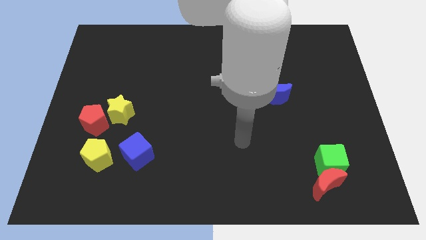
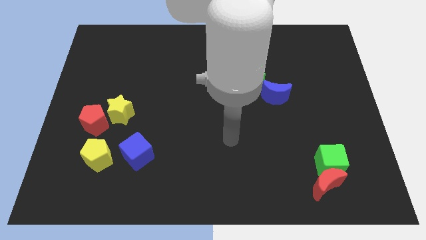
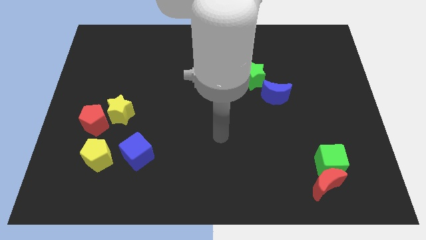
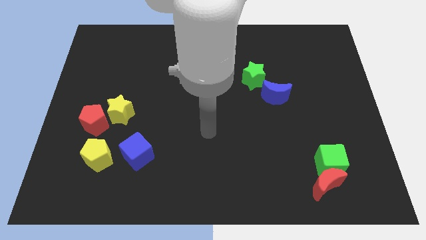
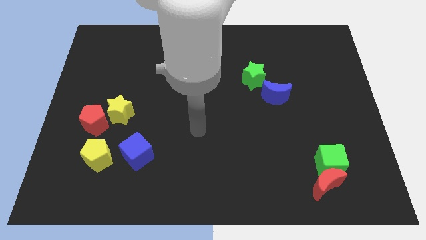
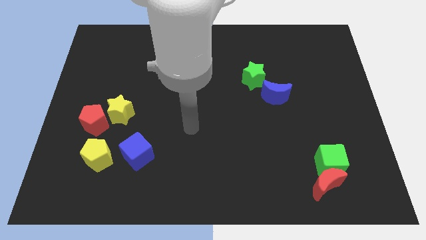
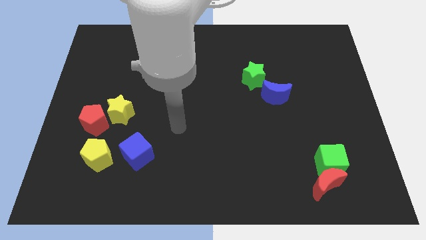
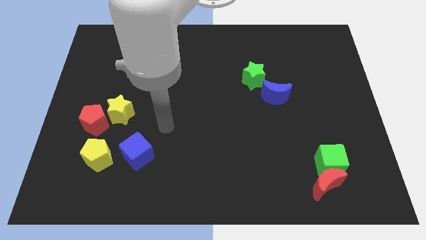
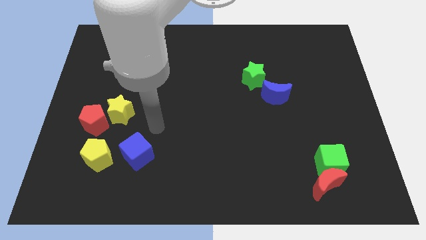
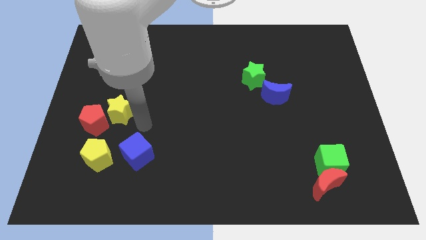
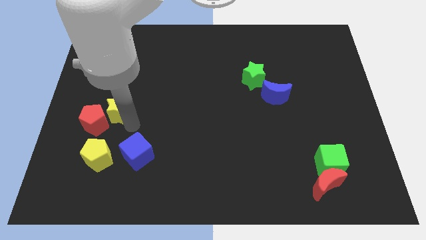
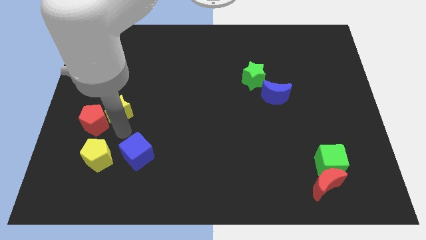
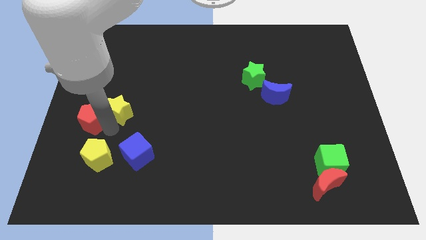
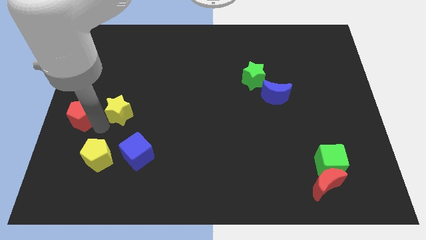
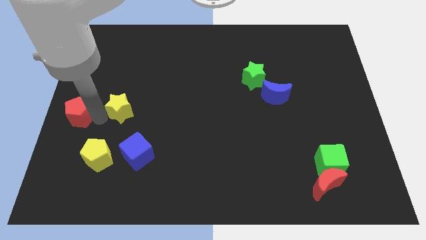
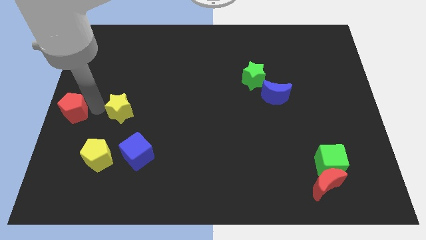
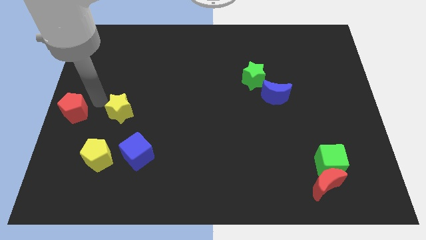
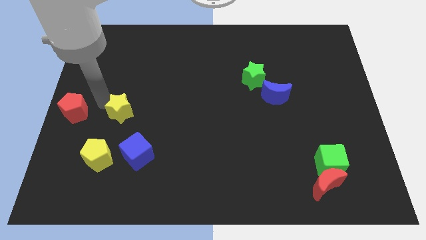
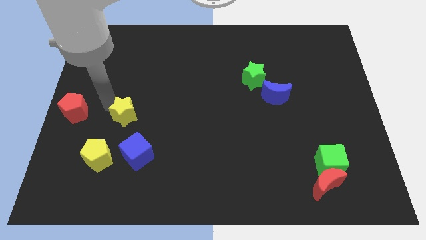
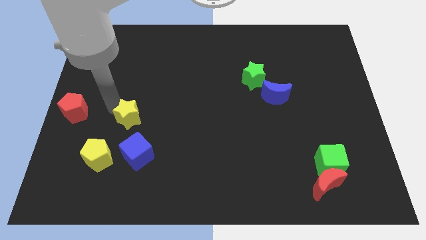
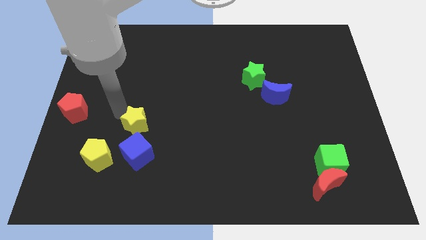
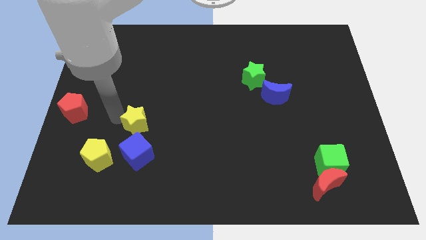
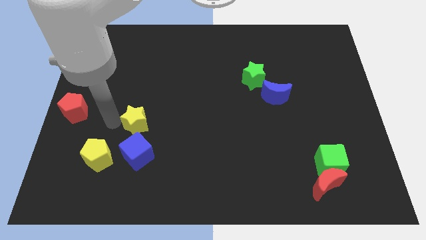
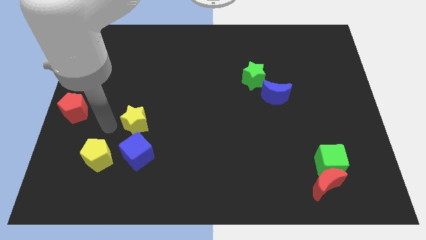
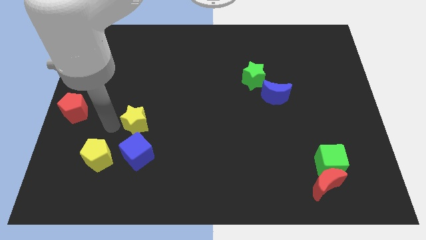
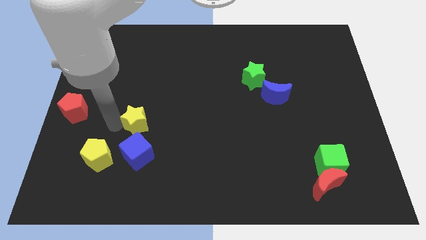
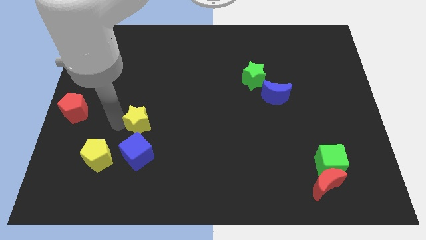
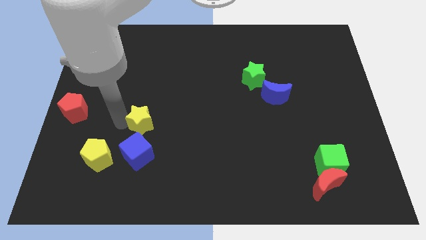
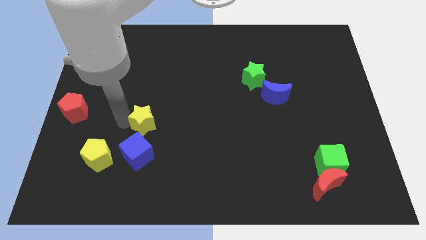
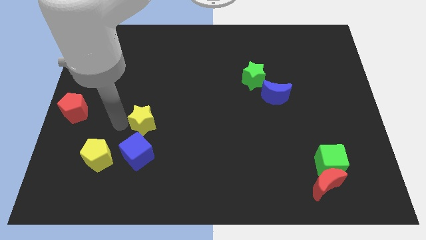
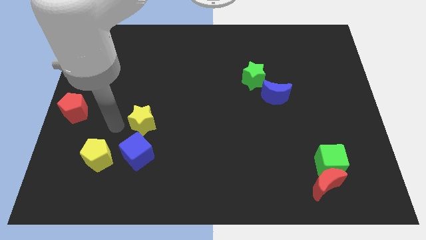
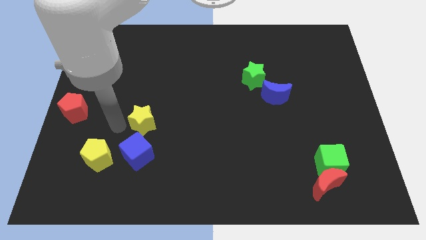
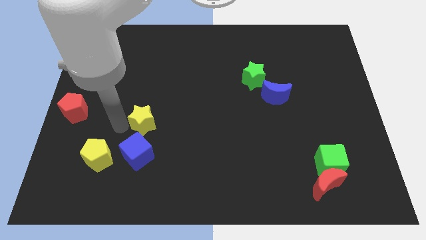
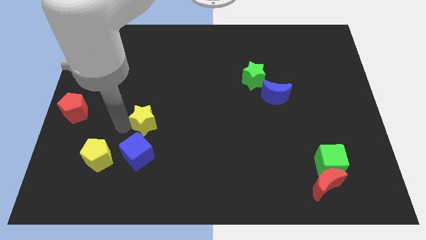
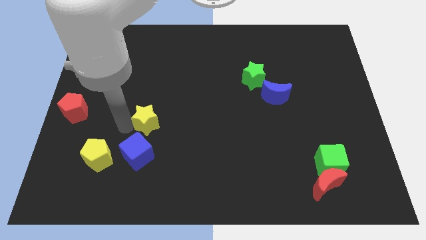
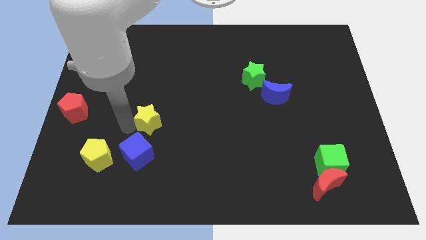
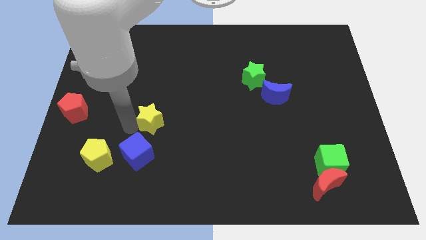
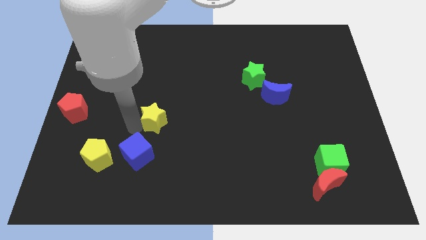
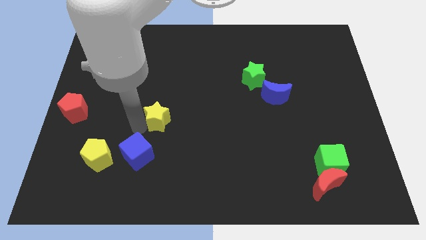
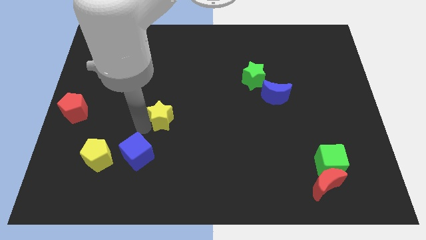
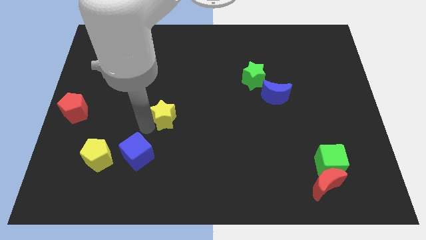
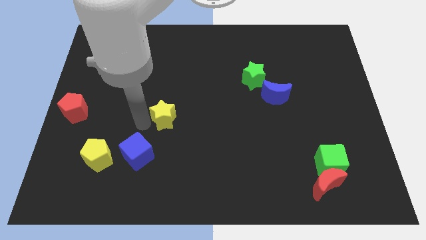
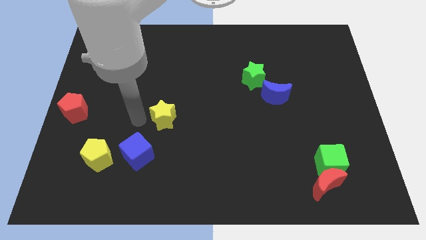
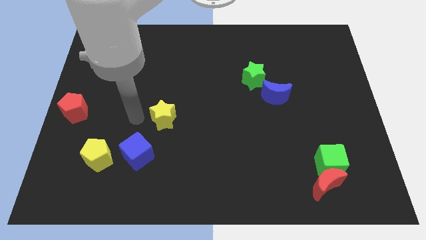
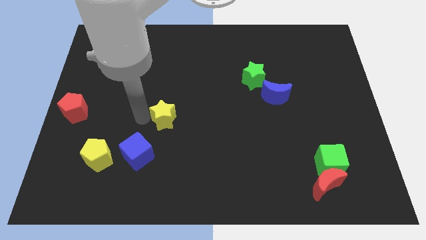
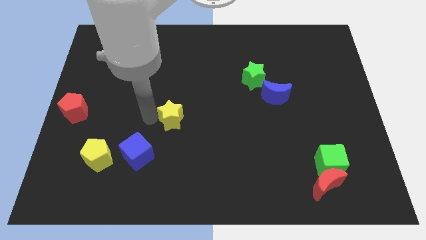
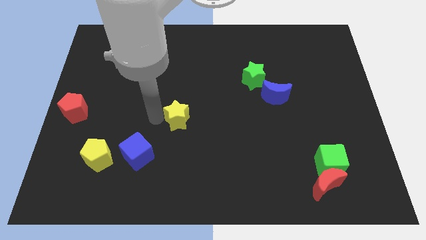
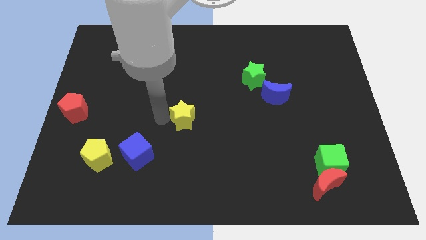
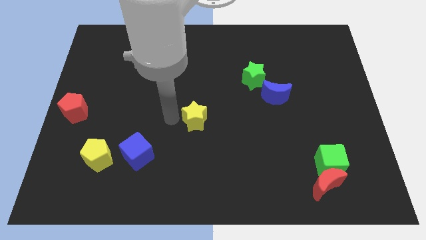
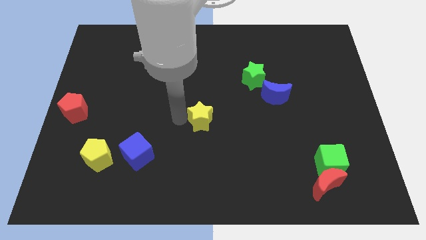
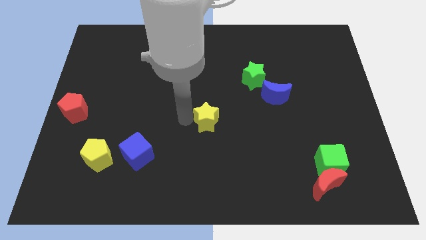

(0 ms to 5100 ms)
push the yellow star right

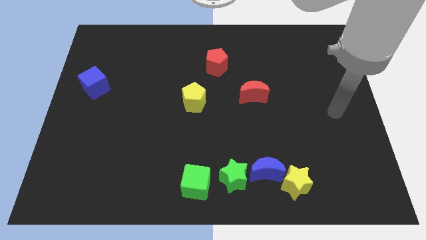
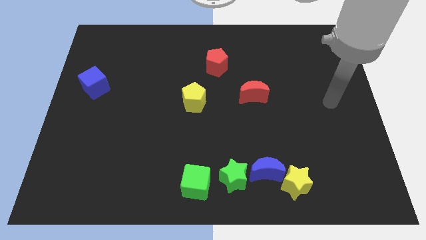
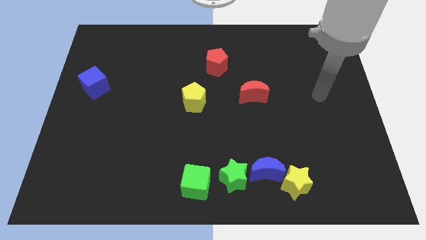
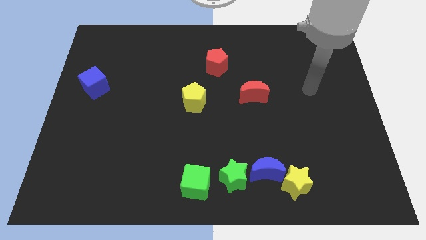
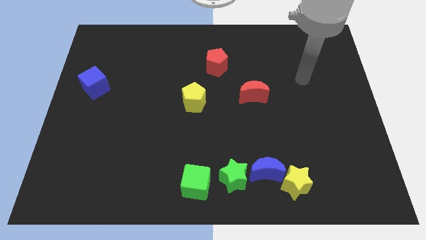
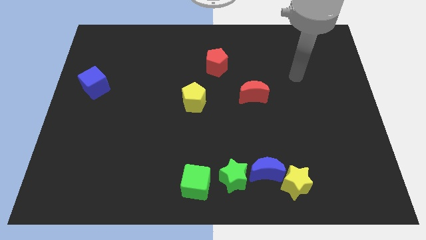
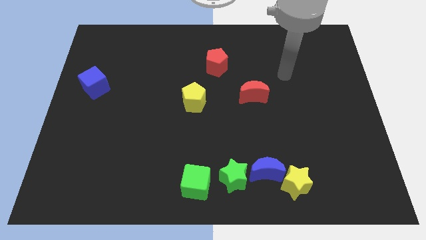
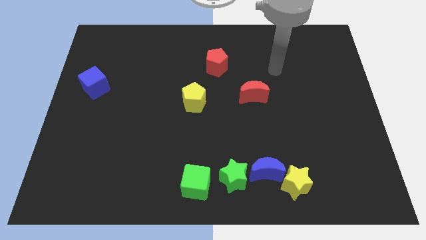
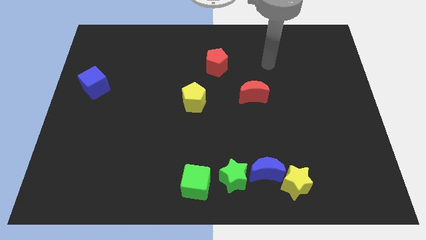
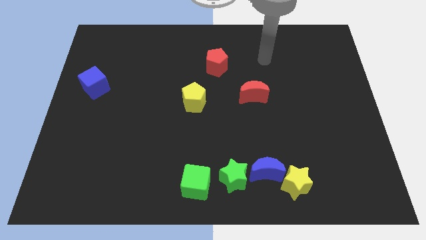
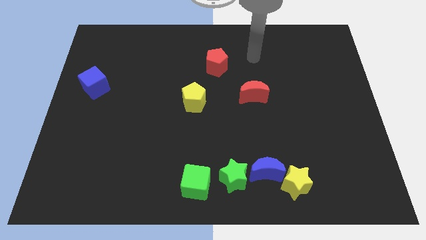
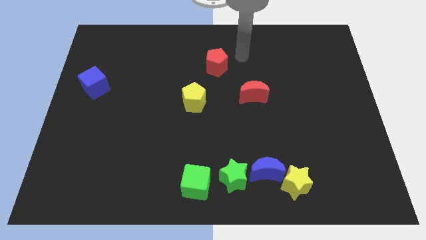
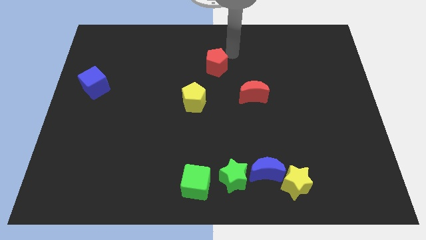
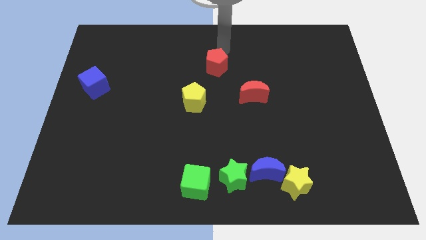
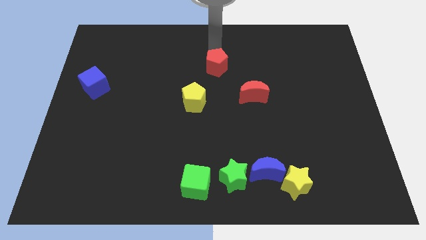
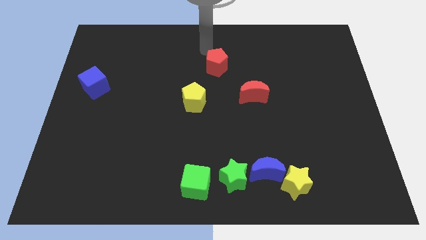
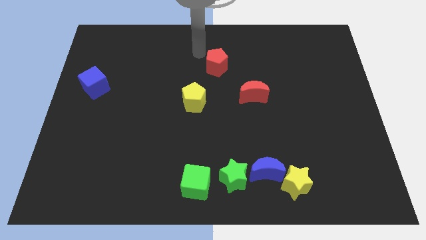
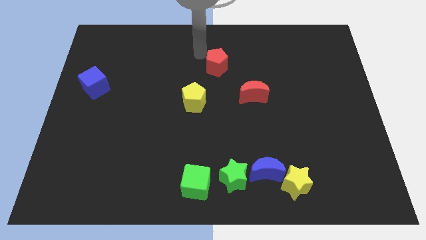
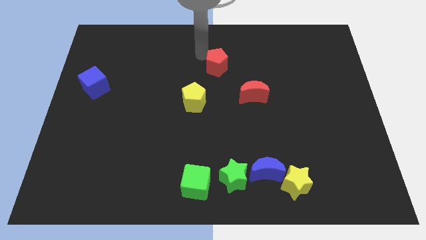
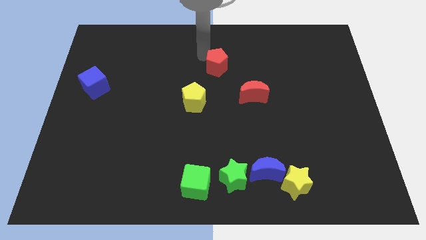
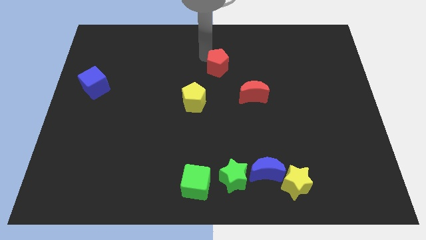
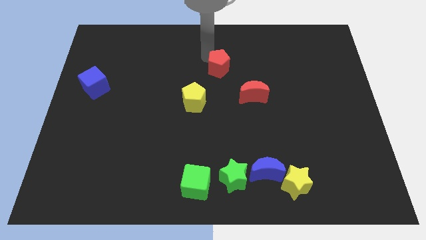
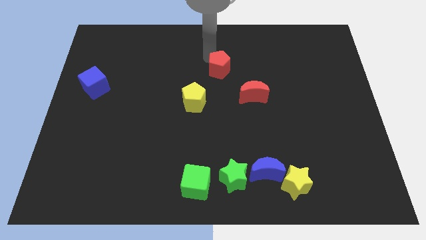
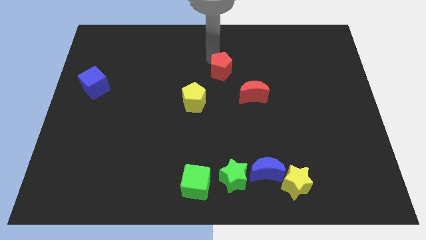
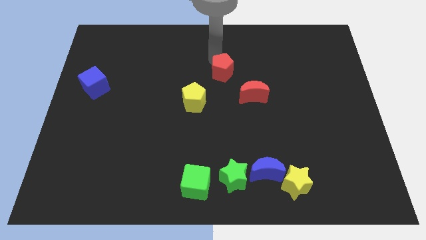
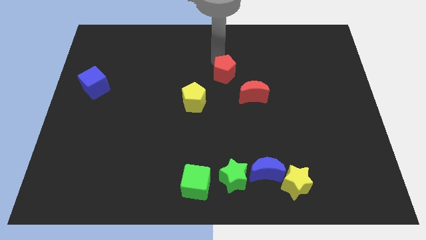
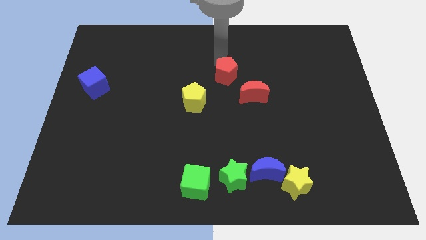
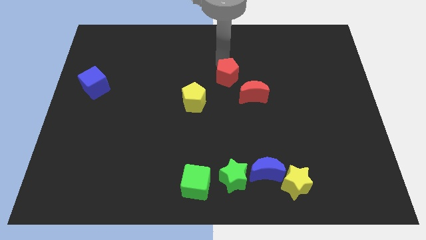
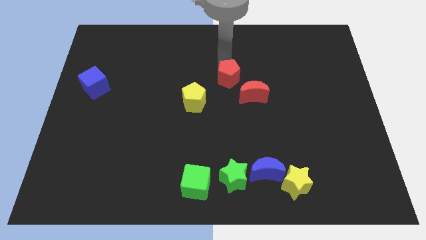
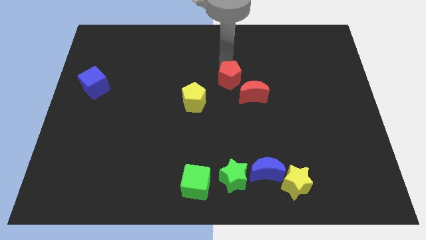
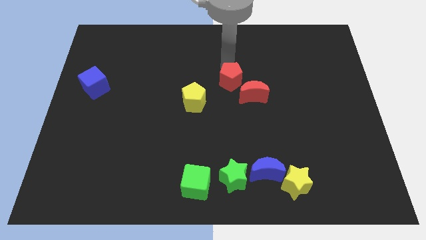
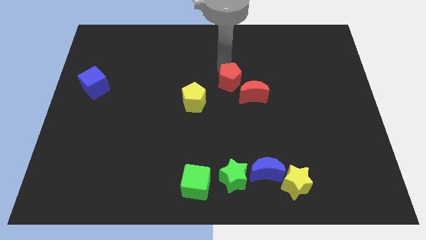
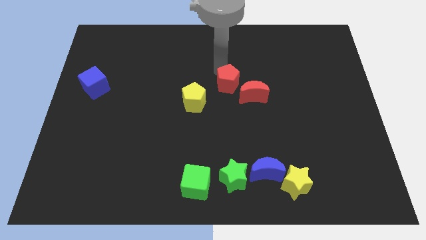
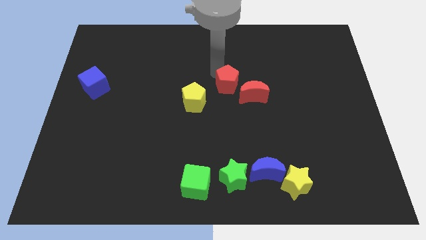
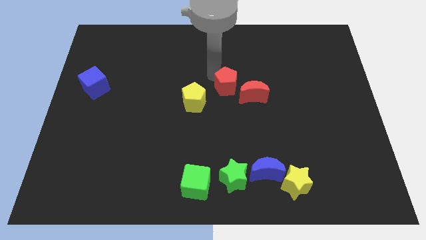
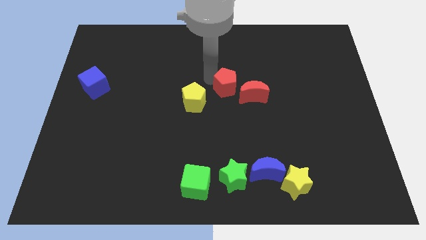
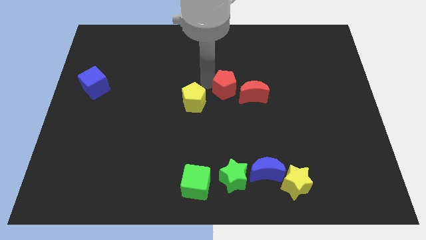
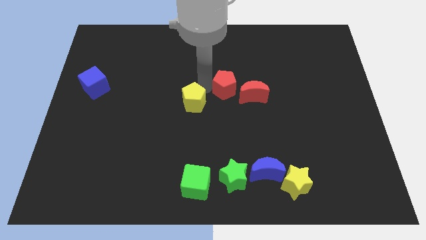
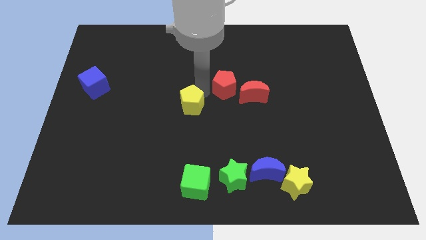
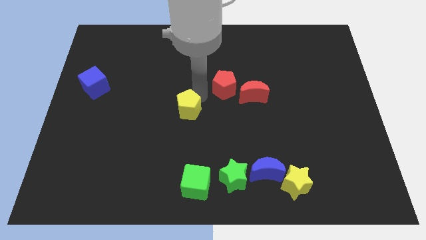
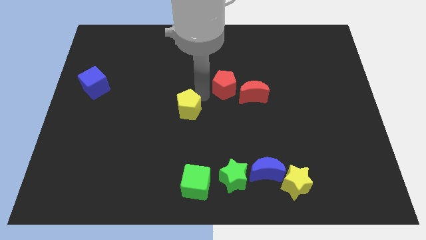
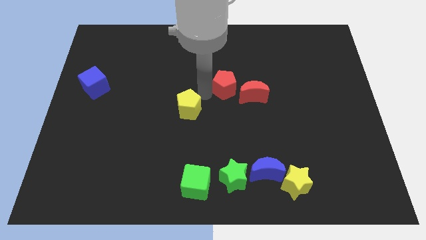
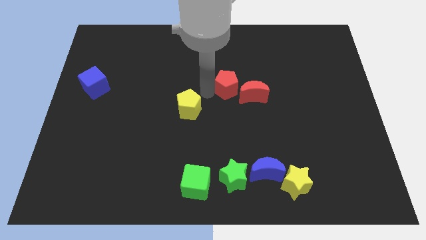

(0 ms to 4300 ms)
slightly push the red pentagon down and to the right diagonally
